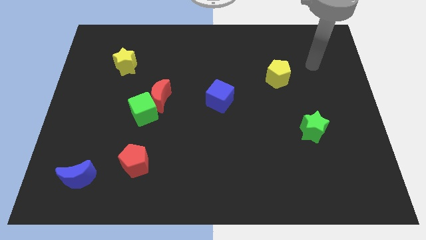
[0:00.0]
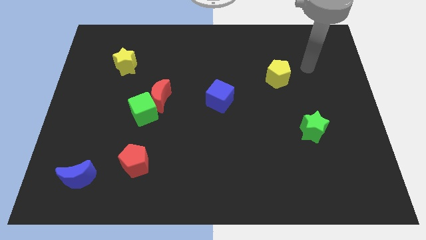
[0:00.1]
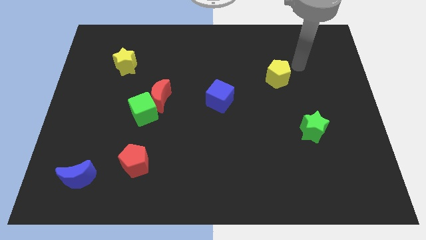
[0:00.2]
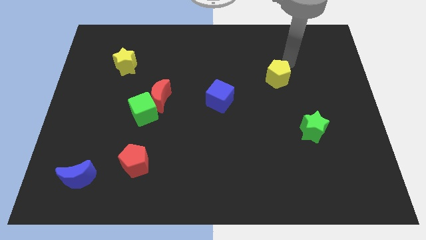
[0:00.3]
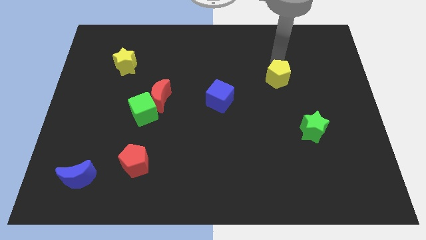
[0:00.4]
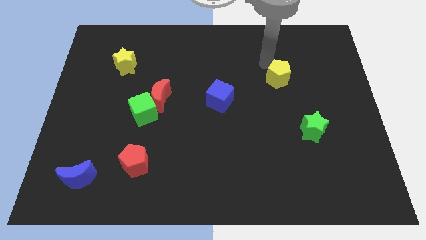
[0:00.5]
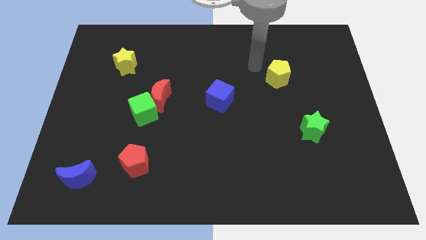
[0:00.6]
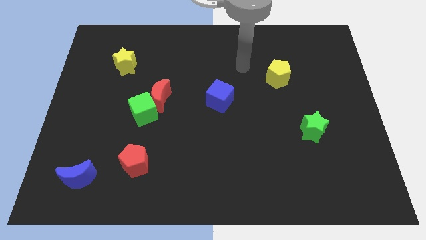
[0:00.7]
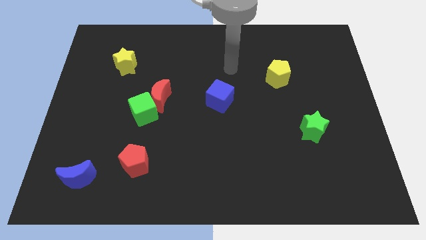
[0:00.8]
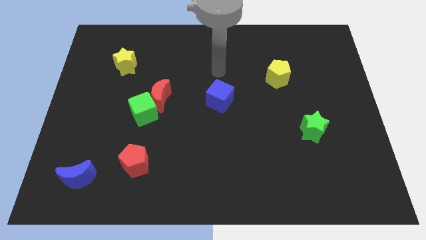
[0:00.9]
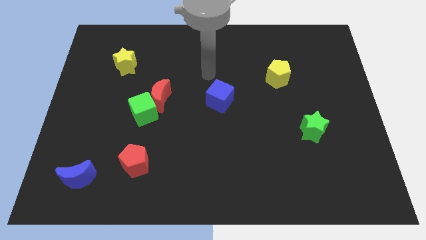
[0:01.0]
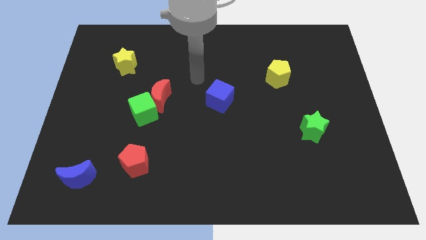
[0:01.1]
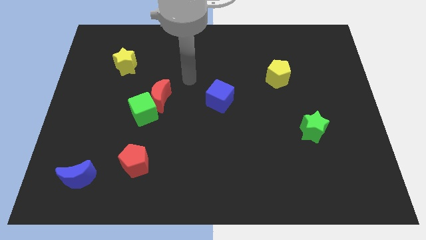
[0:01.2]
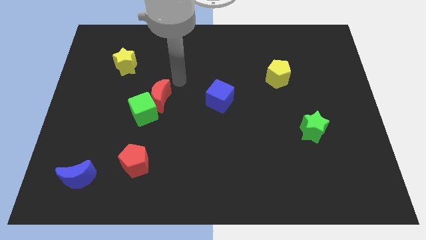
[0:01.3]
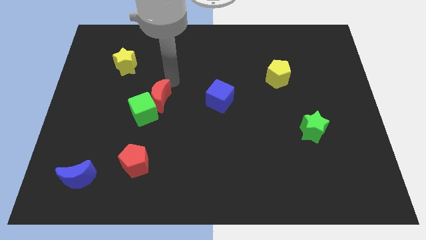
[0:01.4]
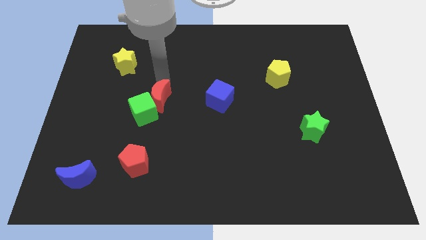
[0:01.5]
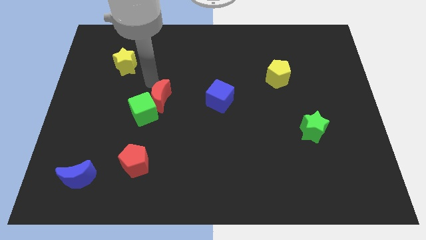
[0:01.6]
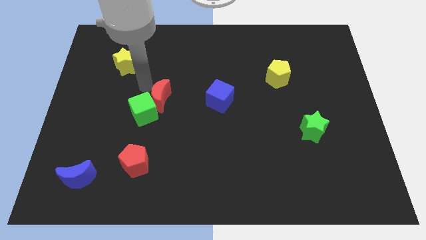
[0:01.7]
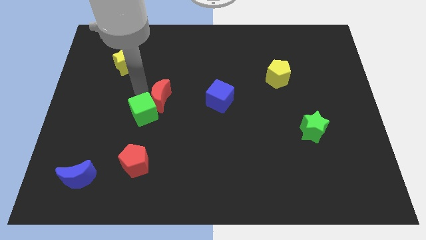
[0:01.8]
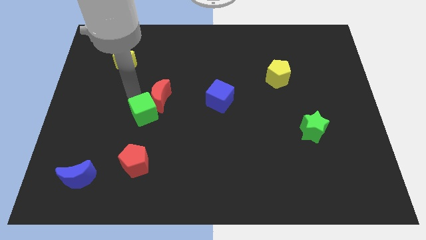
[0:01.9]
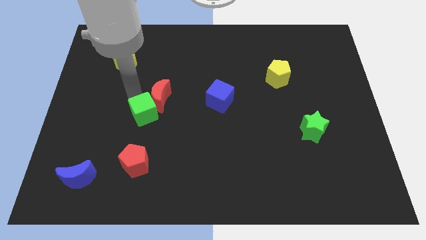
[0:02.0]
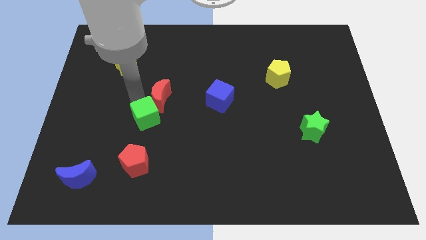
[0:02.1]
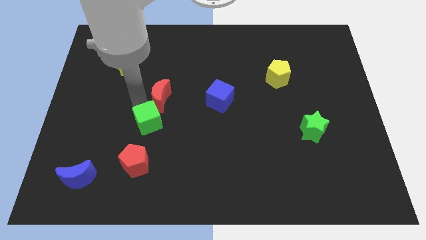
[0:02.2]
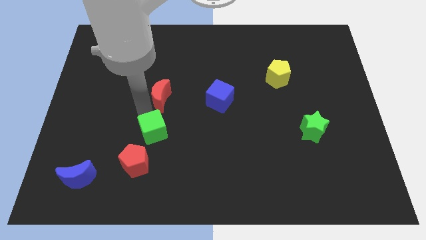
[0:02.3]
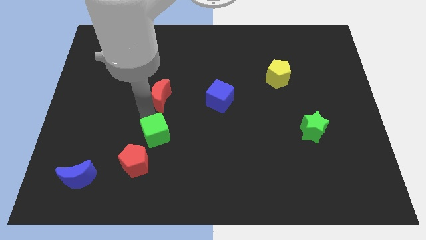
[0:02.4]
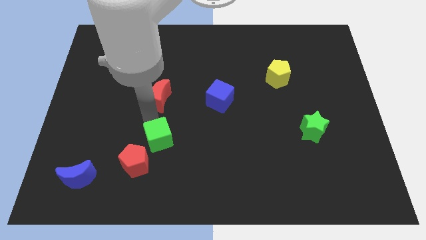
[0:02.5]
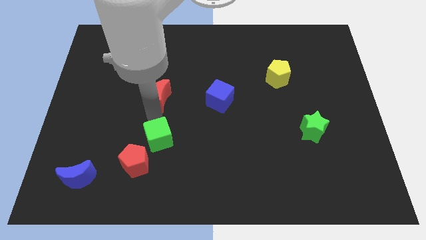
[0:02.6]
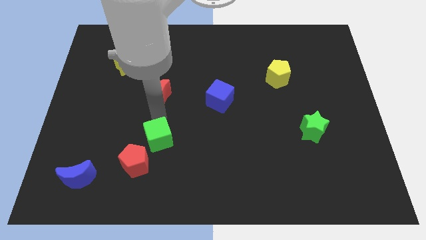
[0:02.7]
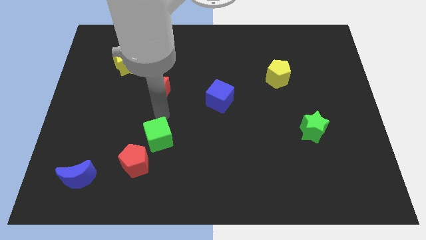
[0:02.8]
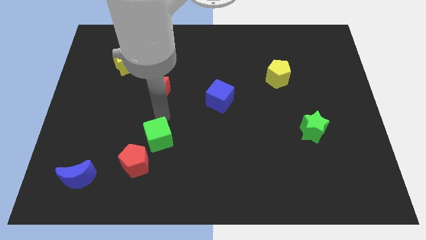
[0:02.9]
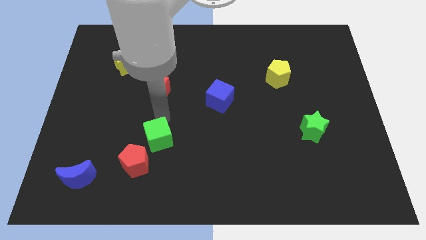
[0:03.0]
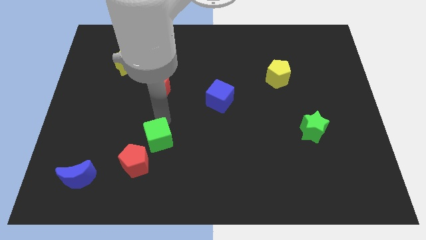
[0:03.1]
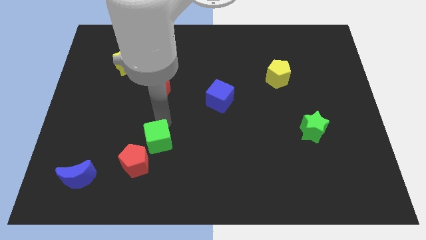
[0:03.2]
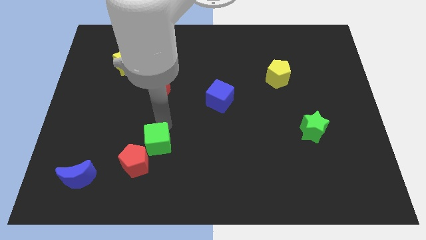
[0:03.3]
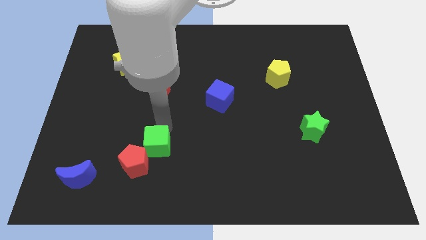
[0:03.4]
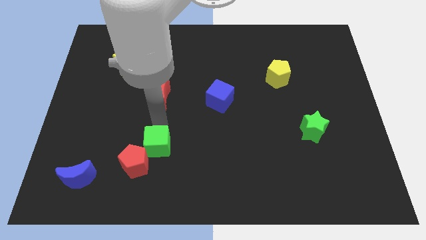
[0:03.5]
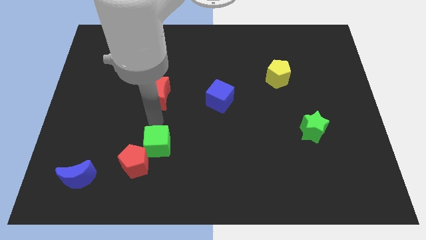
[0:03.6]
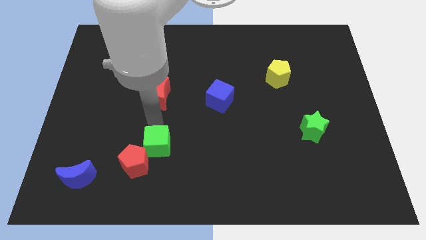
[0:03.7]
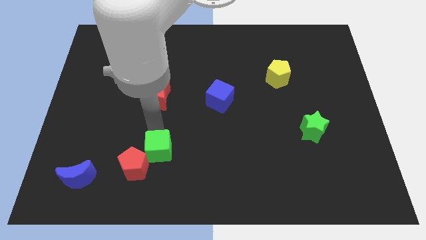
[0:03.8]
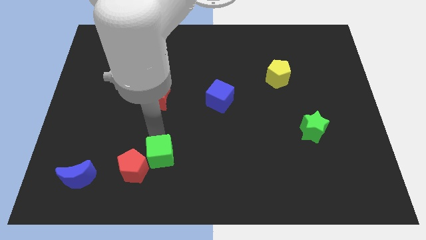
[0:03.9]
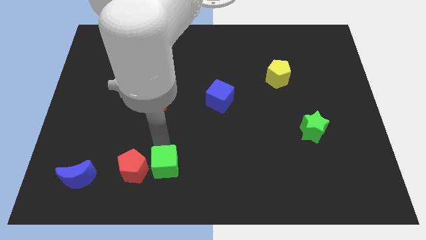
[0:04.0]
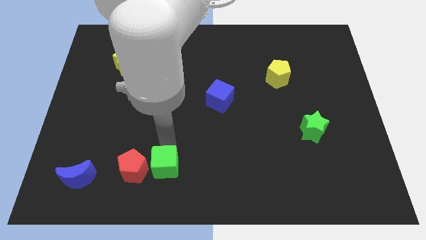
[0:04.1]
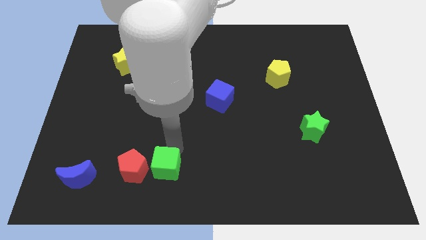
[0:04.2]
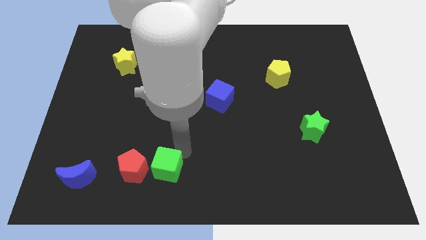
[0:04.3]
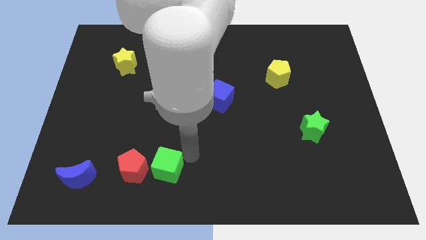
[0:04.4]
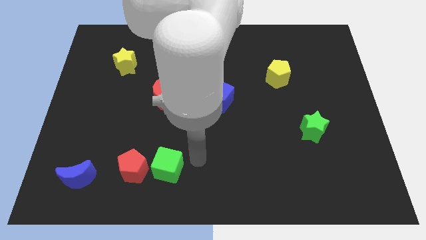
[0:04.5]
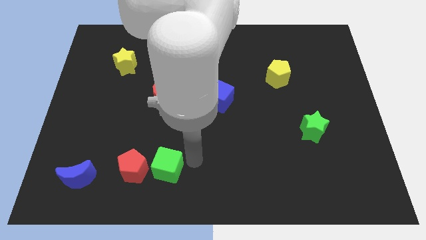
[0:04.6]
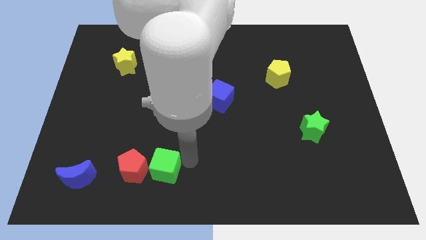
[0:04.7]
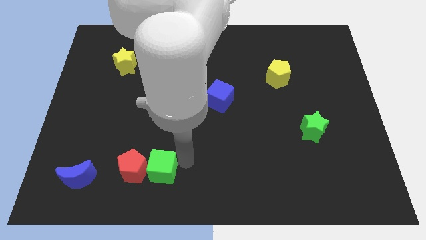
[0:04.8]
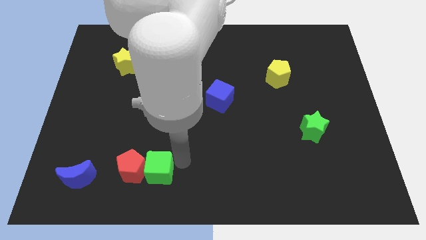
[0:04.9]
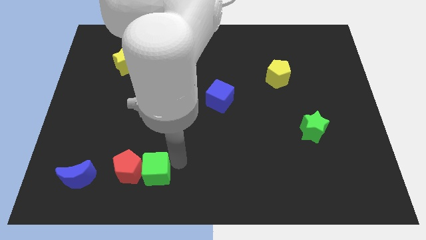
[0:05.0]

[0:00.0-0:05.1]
move the green cube just right of the blue moon

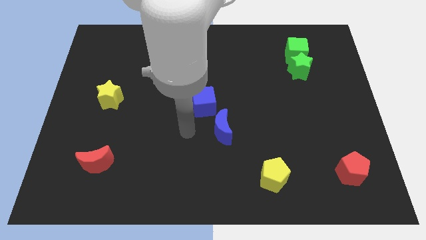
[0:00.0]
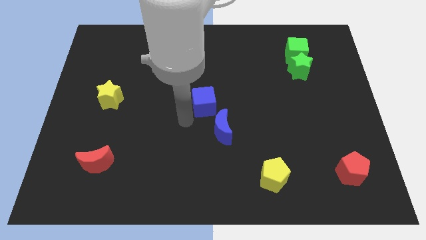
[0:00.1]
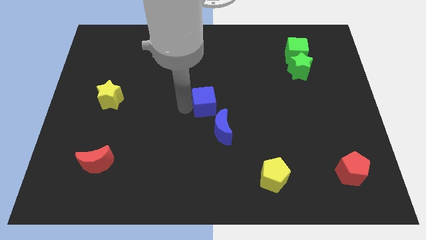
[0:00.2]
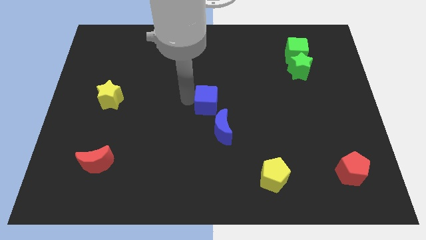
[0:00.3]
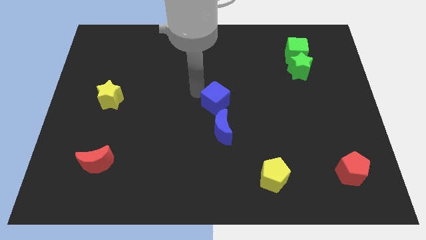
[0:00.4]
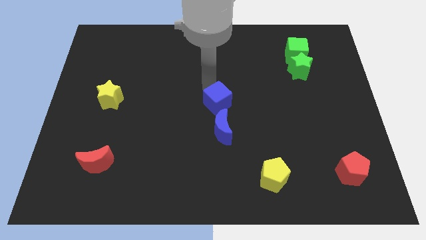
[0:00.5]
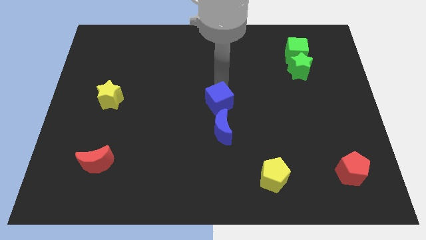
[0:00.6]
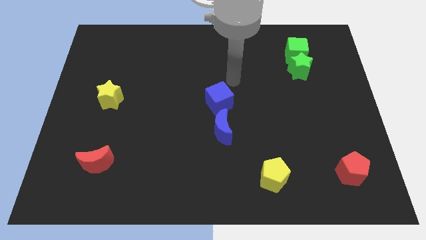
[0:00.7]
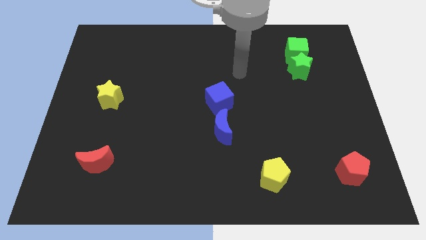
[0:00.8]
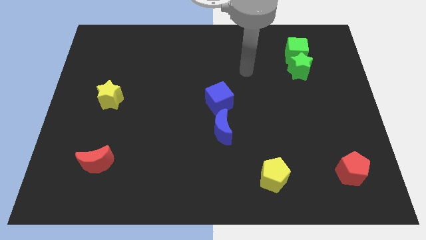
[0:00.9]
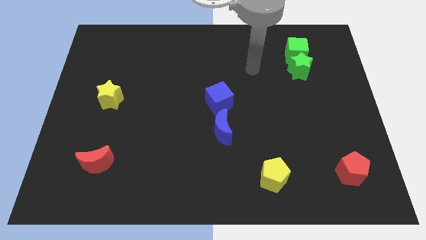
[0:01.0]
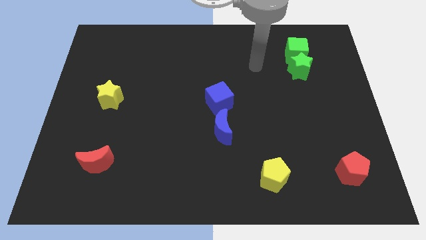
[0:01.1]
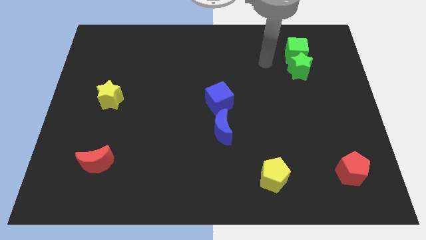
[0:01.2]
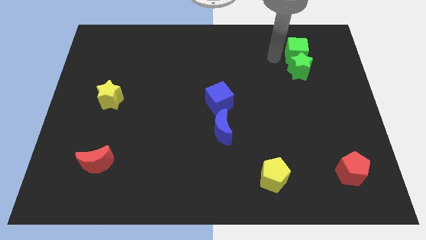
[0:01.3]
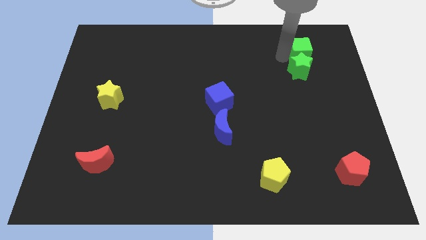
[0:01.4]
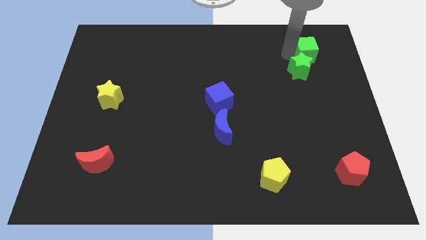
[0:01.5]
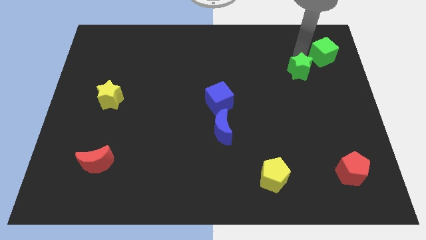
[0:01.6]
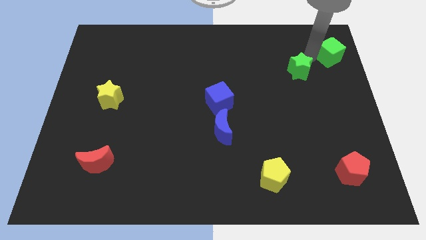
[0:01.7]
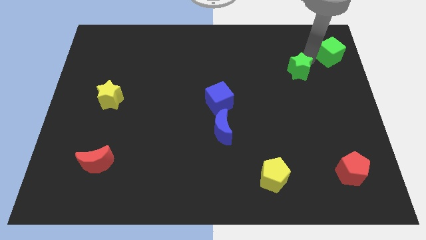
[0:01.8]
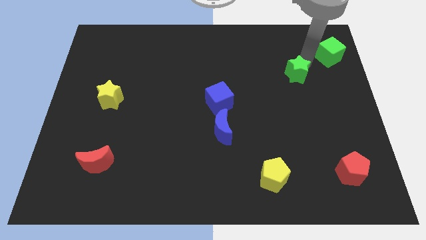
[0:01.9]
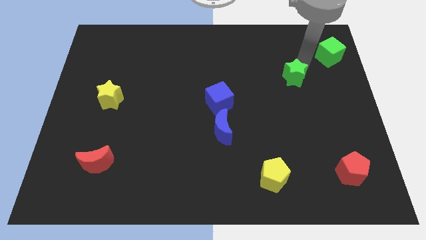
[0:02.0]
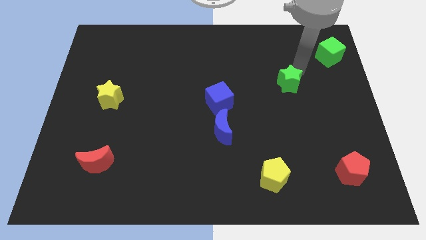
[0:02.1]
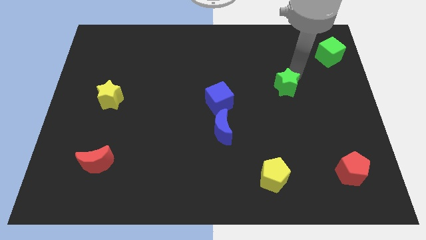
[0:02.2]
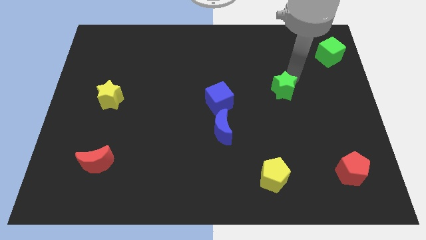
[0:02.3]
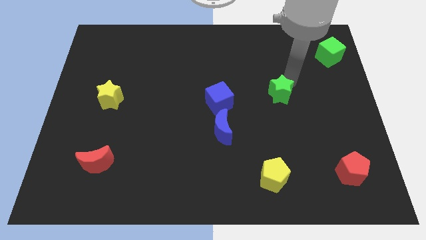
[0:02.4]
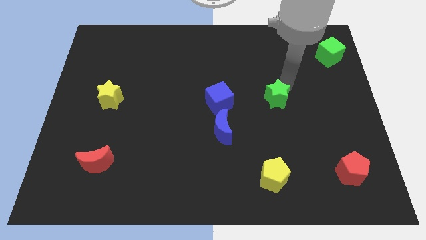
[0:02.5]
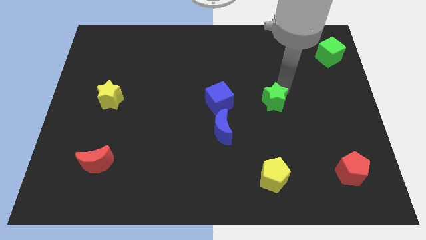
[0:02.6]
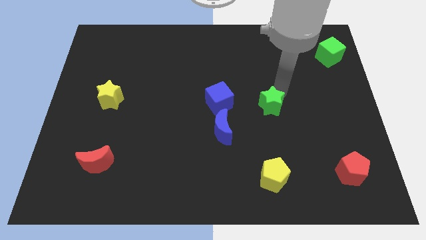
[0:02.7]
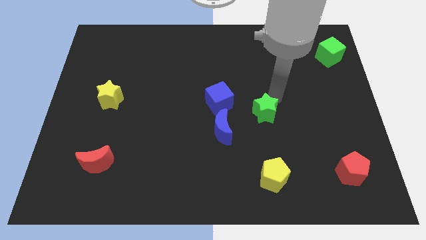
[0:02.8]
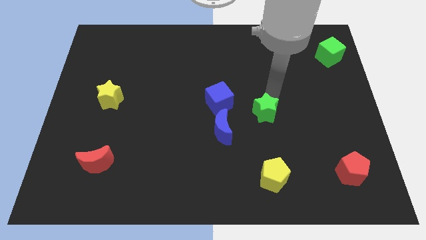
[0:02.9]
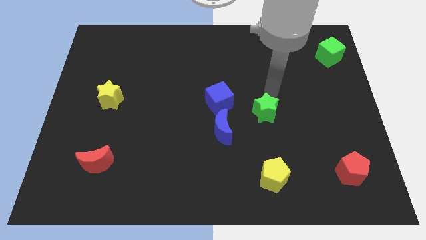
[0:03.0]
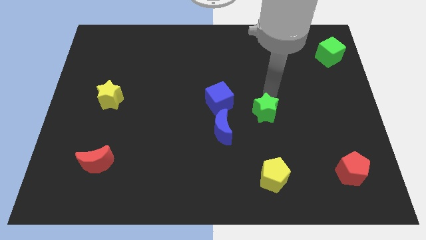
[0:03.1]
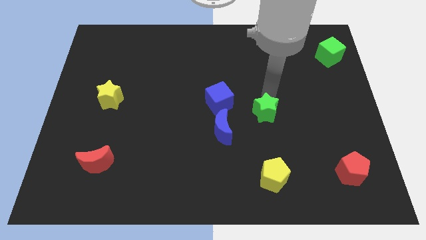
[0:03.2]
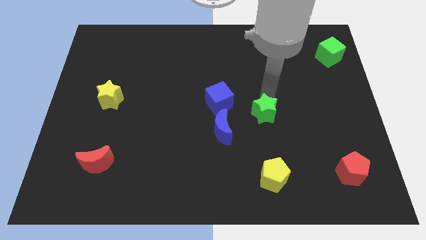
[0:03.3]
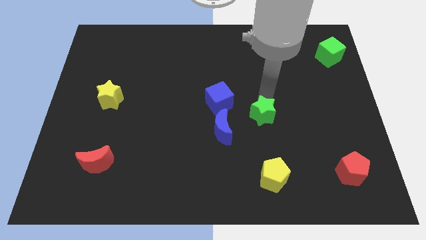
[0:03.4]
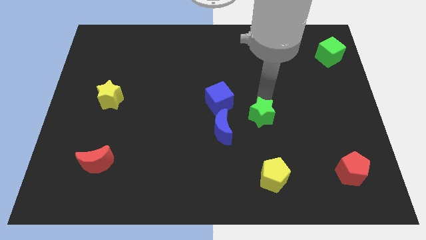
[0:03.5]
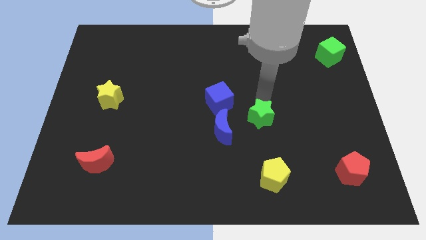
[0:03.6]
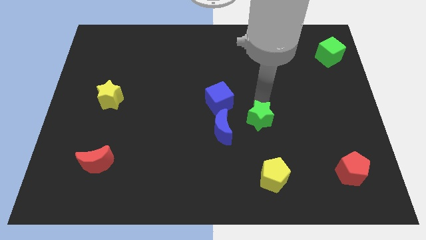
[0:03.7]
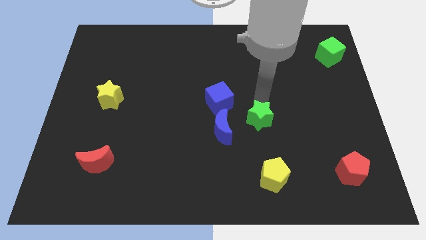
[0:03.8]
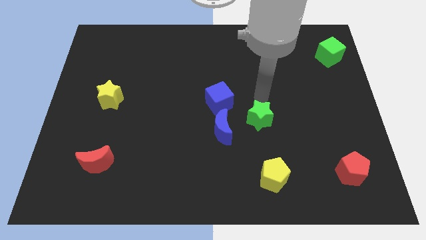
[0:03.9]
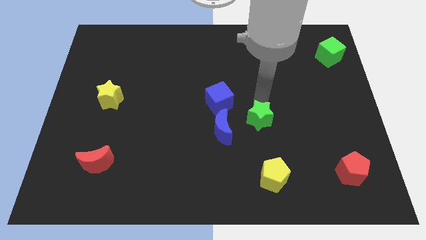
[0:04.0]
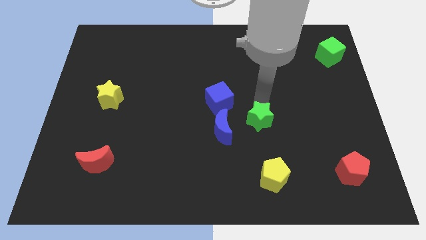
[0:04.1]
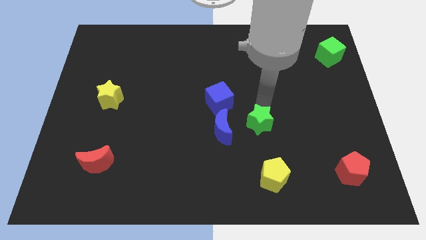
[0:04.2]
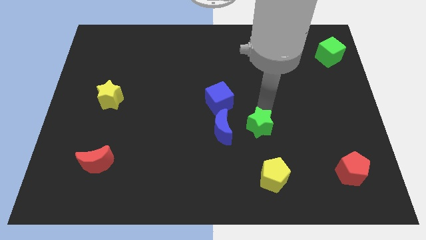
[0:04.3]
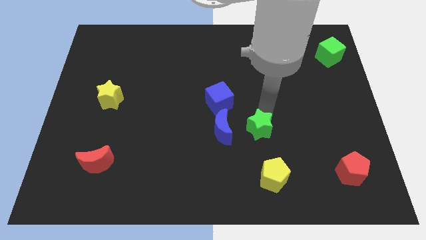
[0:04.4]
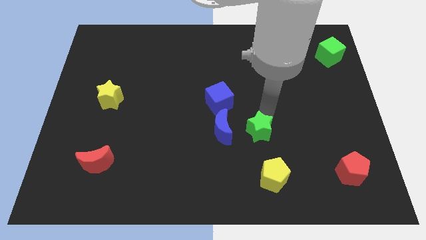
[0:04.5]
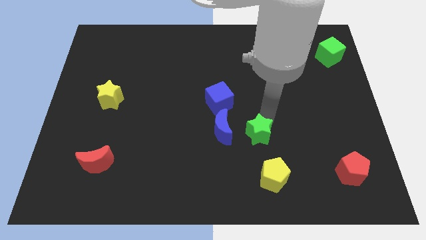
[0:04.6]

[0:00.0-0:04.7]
push the green star diagonally down and to the right of the blue moon
